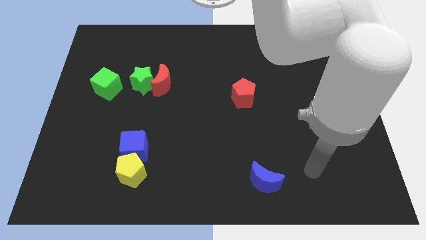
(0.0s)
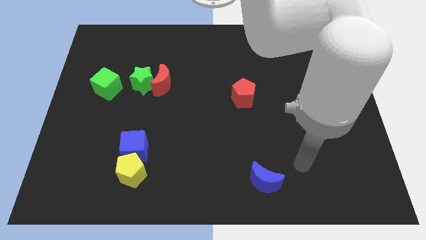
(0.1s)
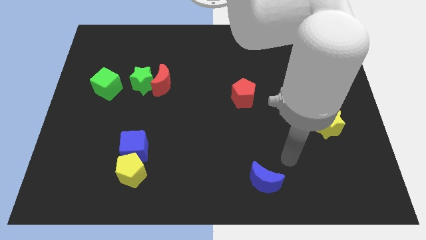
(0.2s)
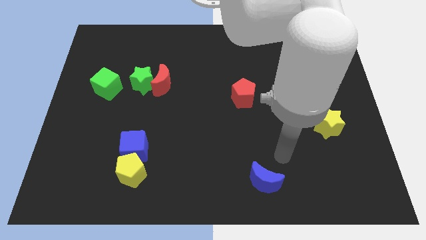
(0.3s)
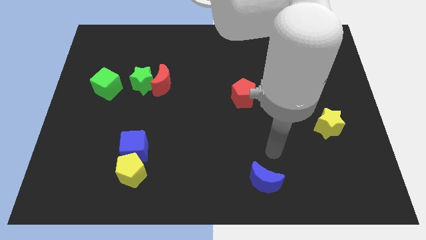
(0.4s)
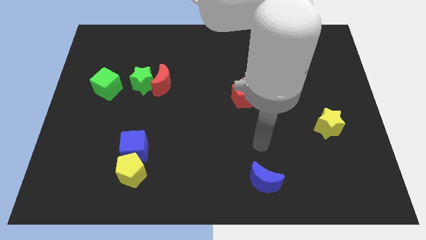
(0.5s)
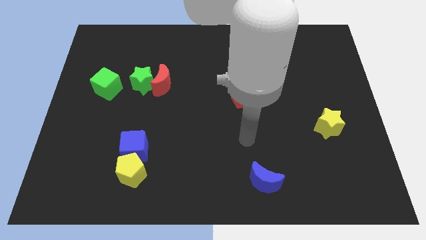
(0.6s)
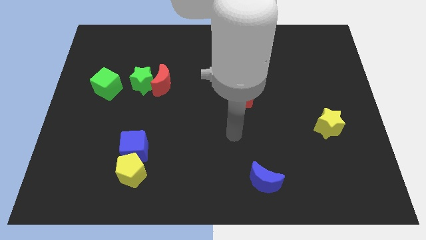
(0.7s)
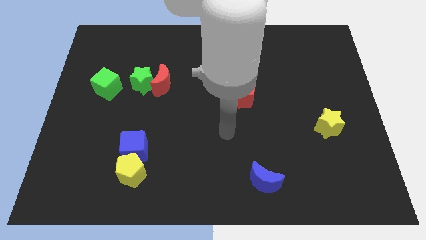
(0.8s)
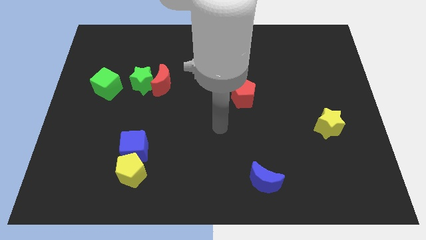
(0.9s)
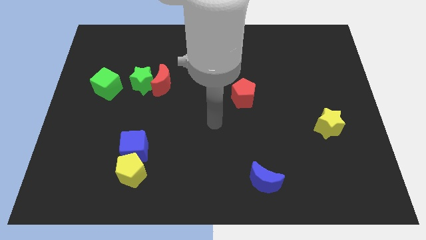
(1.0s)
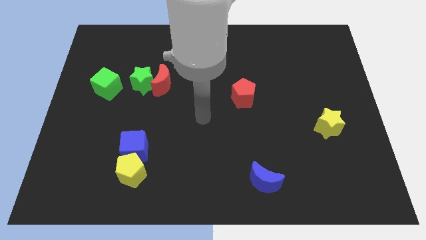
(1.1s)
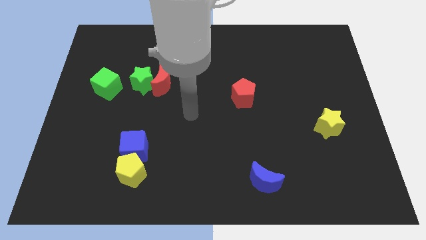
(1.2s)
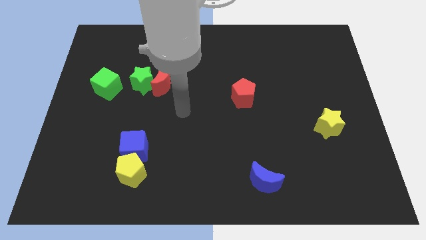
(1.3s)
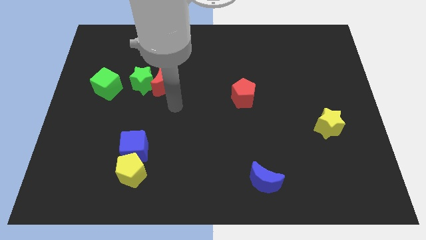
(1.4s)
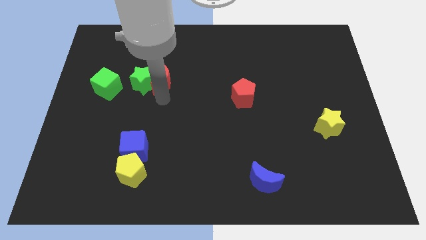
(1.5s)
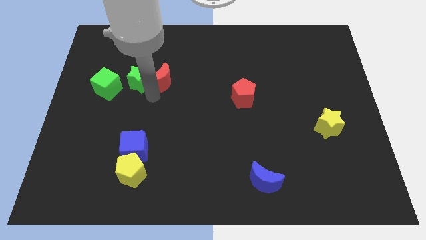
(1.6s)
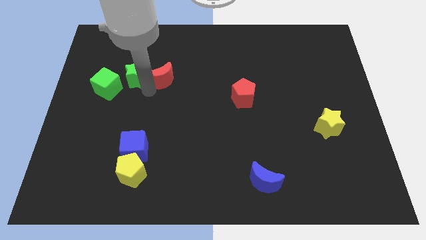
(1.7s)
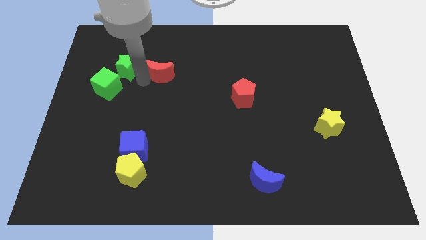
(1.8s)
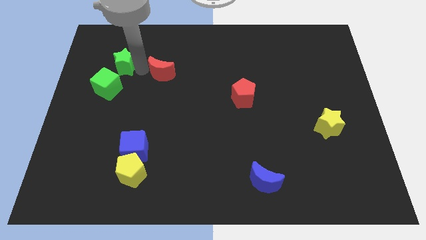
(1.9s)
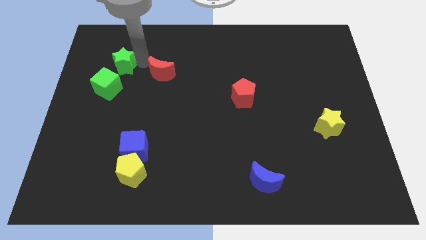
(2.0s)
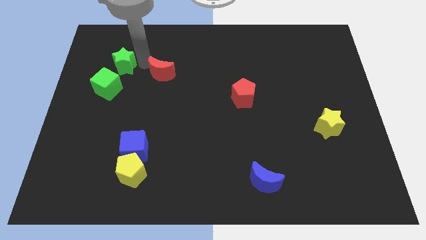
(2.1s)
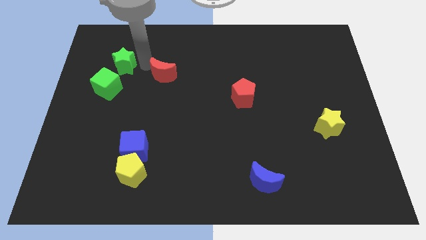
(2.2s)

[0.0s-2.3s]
separate the red moon from the green star

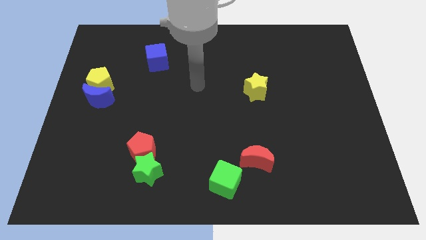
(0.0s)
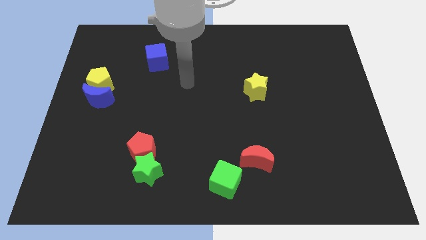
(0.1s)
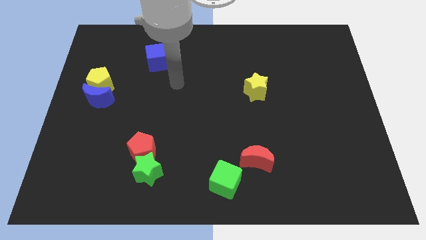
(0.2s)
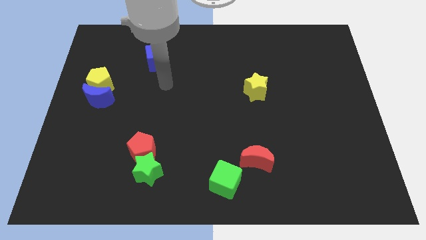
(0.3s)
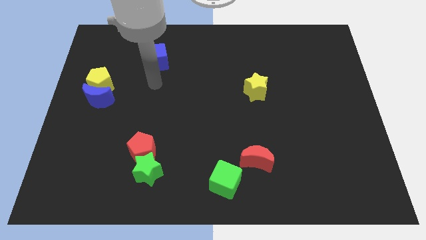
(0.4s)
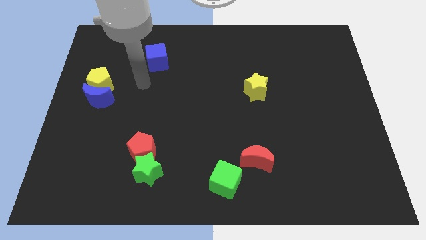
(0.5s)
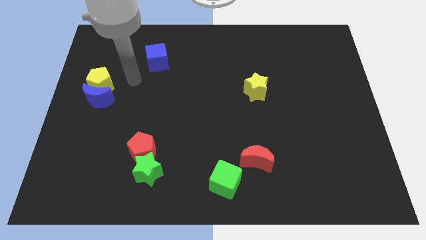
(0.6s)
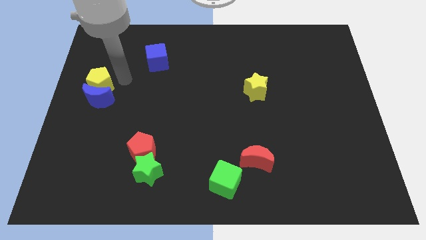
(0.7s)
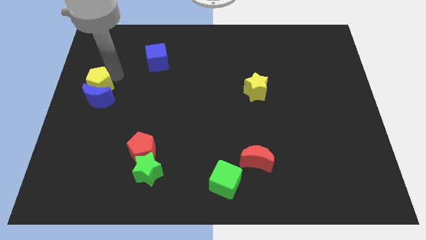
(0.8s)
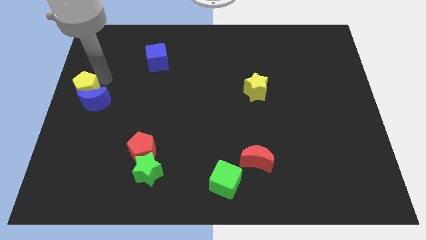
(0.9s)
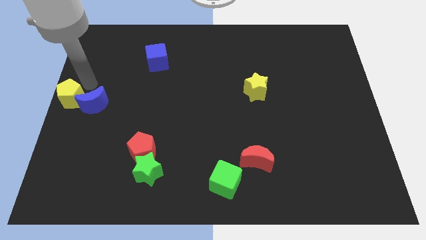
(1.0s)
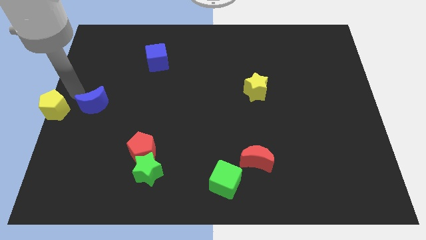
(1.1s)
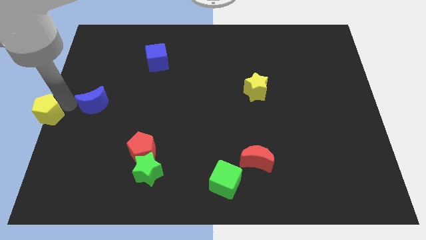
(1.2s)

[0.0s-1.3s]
pull the blue moon apart from the yellow pentagon

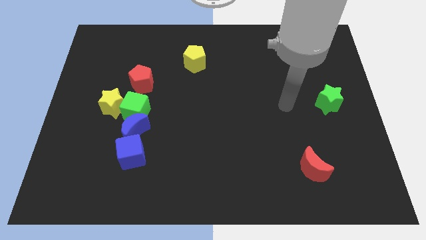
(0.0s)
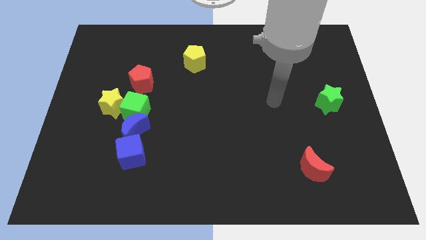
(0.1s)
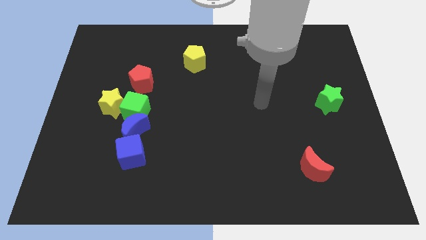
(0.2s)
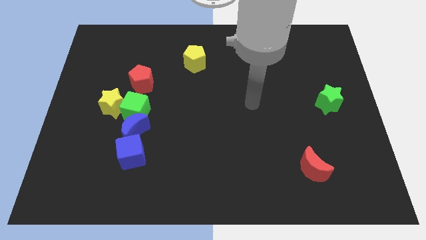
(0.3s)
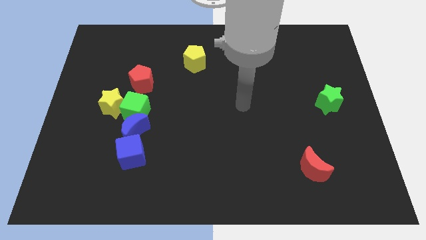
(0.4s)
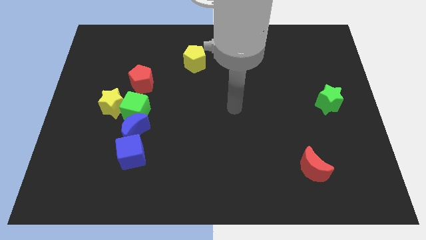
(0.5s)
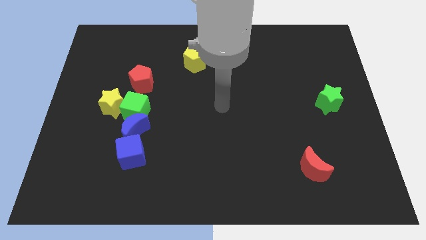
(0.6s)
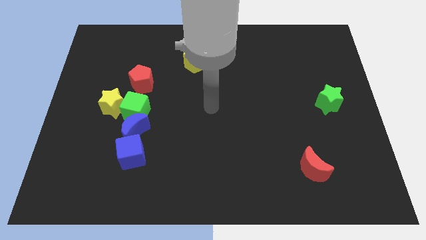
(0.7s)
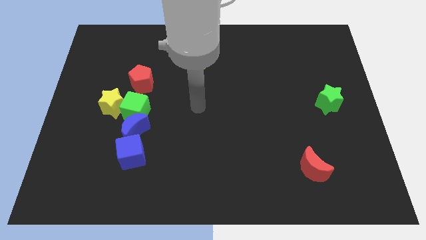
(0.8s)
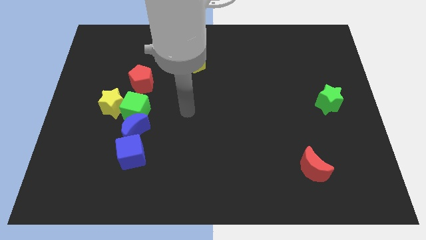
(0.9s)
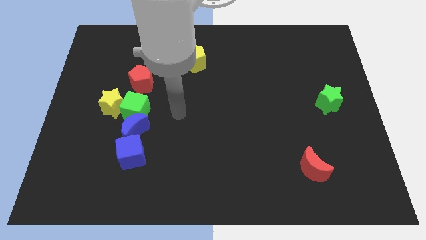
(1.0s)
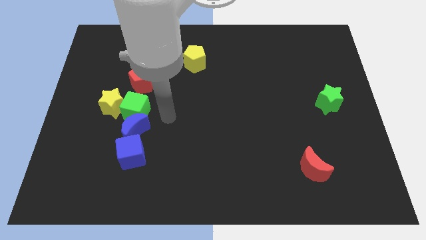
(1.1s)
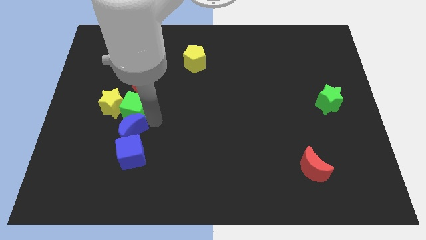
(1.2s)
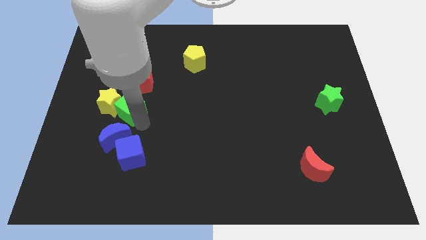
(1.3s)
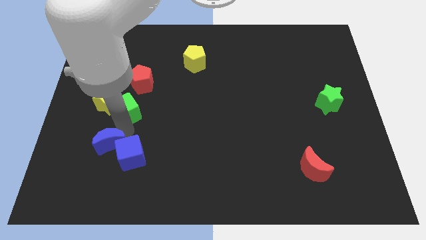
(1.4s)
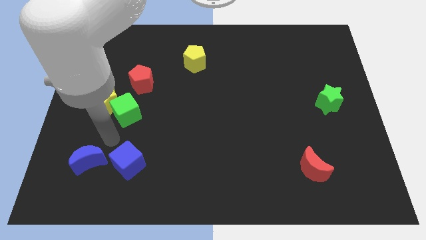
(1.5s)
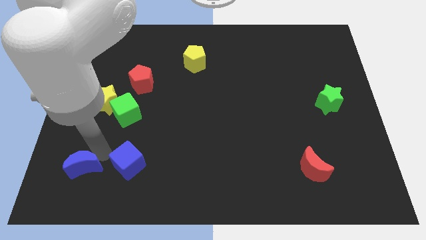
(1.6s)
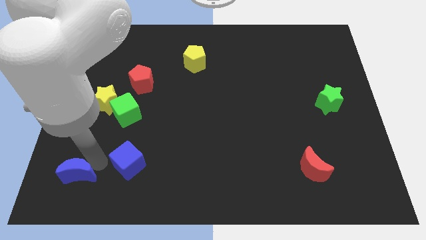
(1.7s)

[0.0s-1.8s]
separate the blue cube from the blue moon

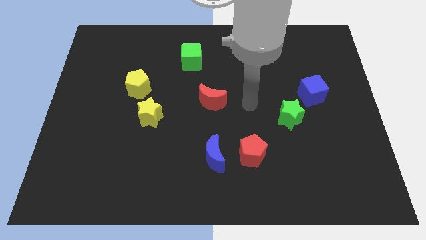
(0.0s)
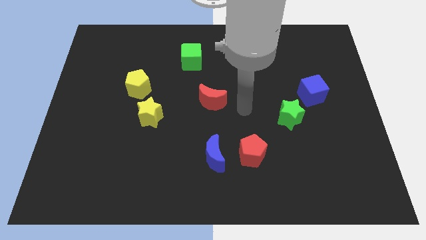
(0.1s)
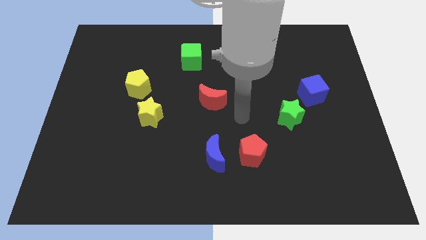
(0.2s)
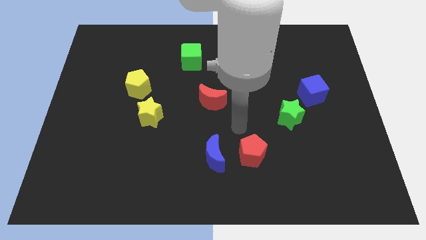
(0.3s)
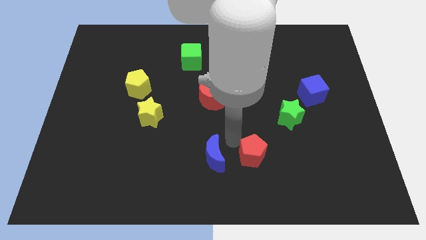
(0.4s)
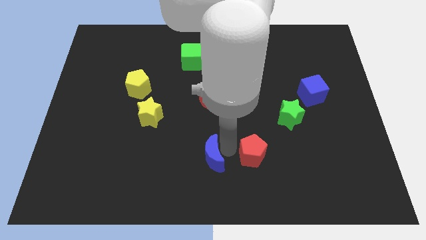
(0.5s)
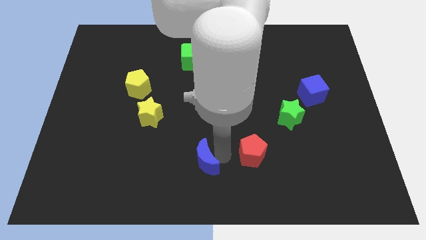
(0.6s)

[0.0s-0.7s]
pull the red pentagon apart from the blue moon

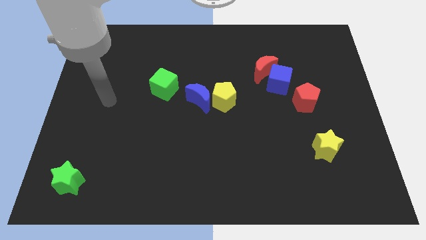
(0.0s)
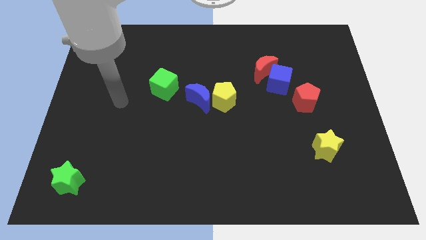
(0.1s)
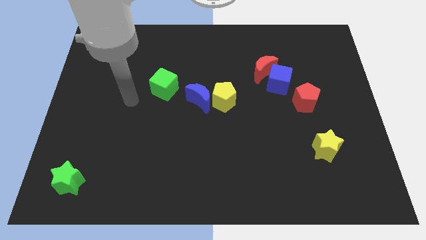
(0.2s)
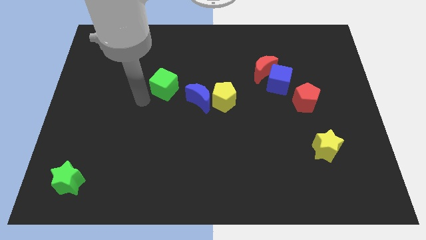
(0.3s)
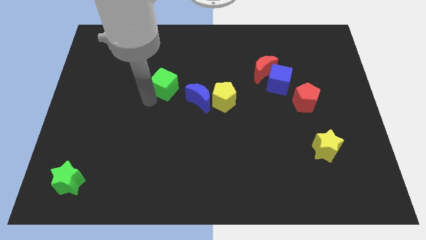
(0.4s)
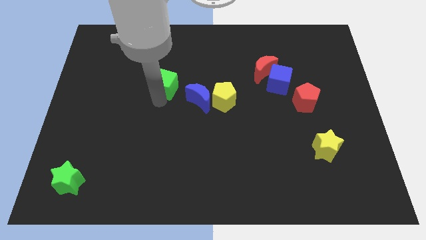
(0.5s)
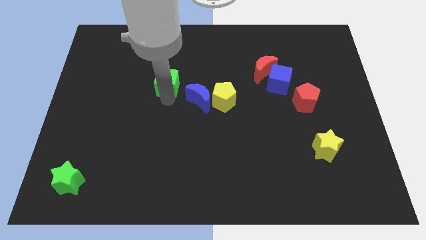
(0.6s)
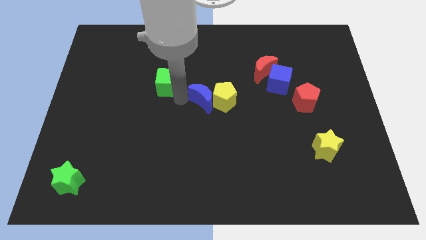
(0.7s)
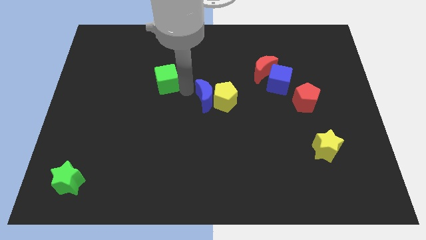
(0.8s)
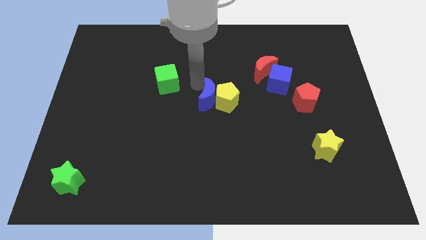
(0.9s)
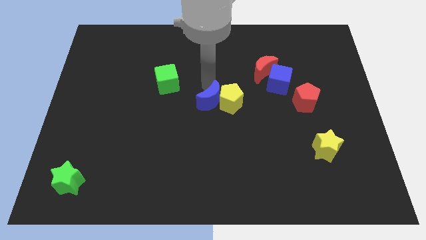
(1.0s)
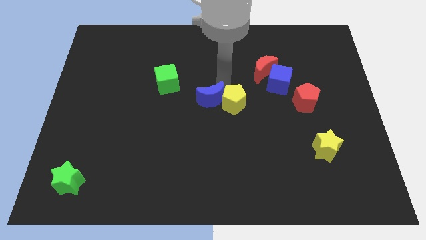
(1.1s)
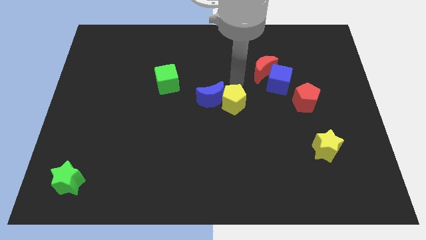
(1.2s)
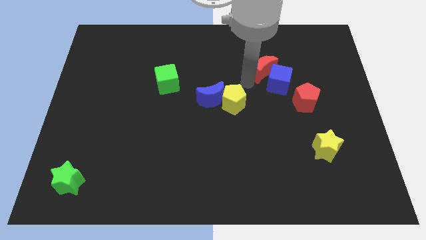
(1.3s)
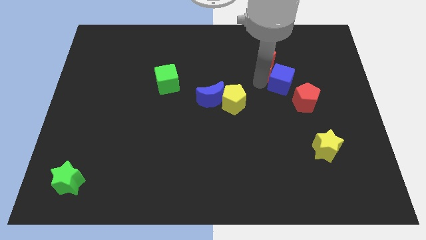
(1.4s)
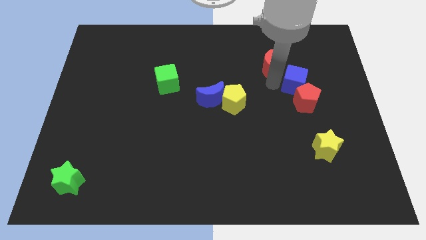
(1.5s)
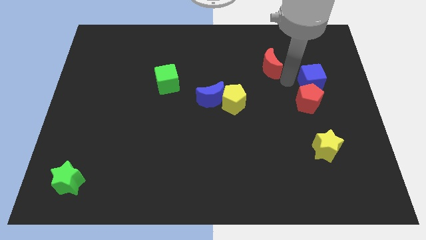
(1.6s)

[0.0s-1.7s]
pull the red moon apart from the blue cube

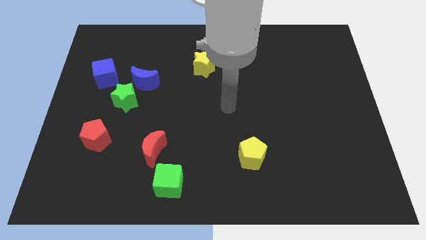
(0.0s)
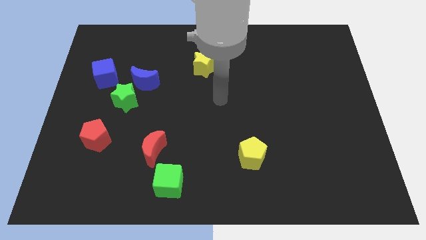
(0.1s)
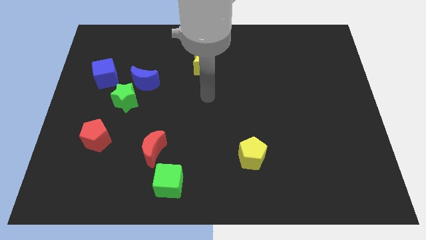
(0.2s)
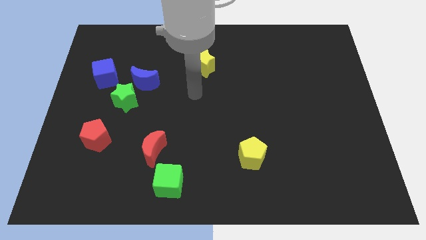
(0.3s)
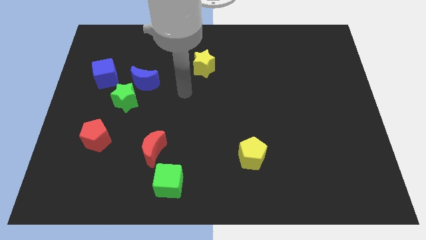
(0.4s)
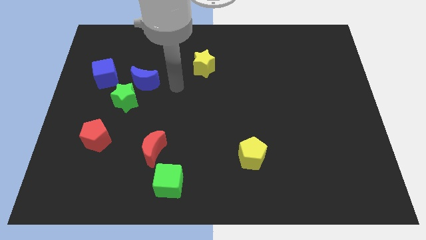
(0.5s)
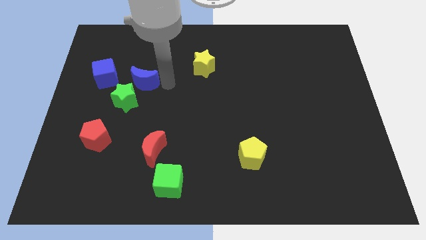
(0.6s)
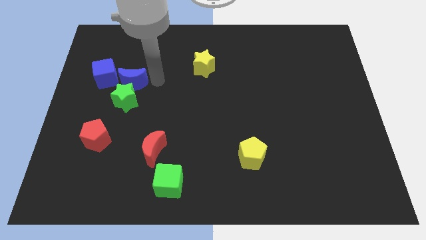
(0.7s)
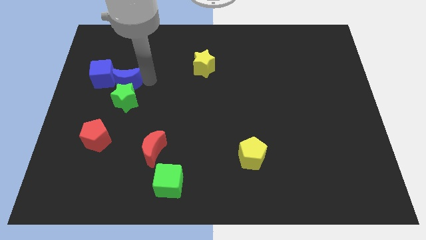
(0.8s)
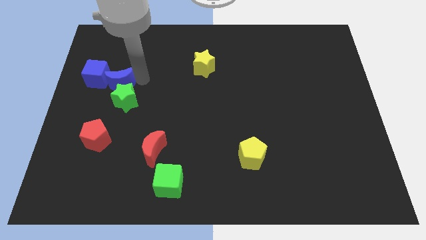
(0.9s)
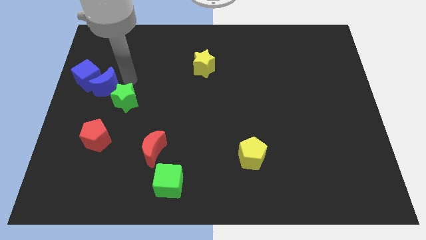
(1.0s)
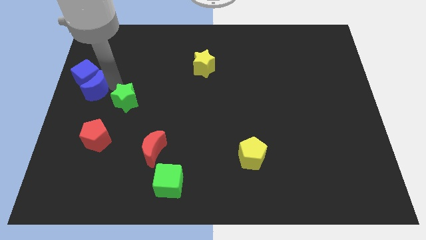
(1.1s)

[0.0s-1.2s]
separate the green star from the blue moon and blue cube

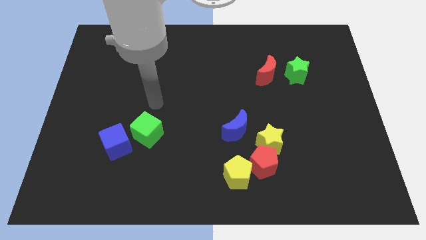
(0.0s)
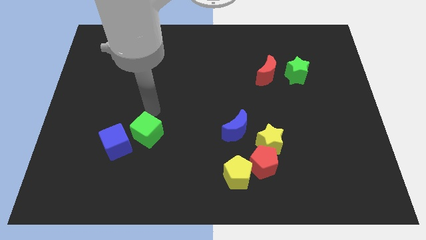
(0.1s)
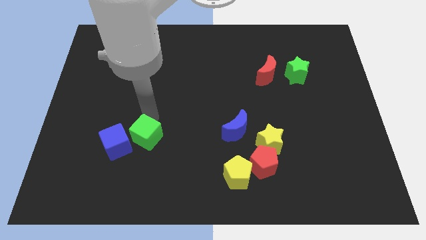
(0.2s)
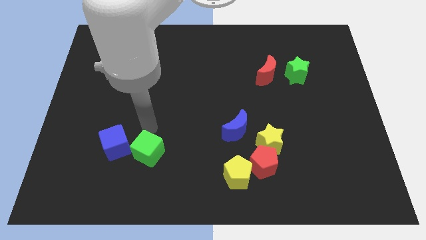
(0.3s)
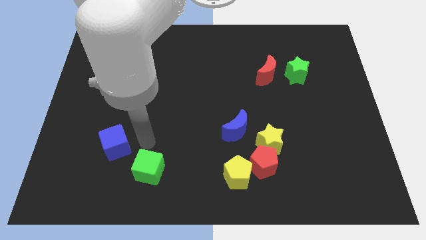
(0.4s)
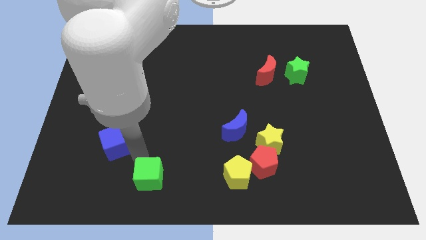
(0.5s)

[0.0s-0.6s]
move the blue cube away from the green cube
